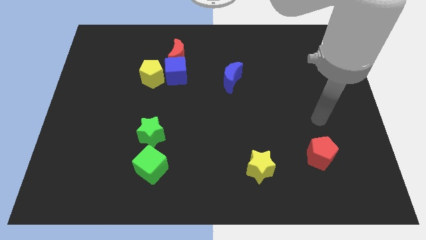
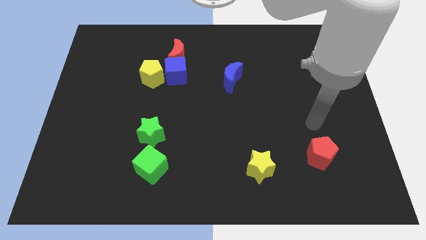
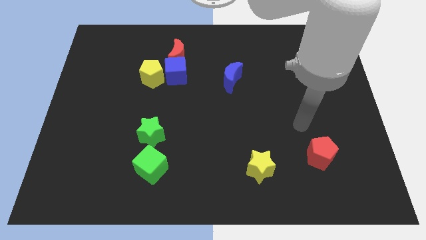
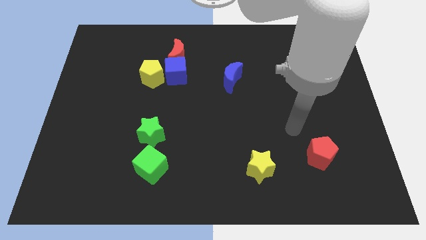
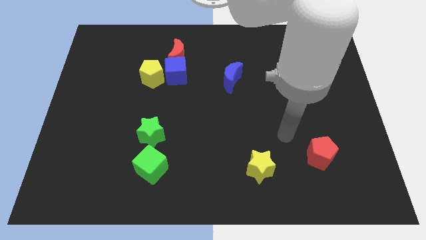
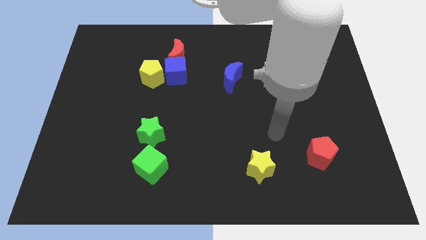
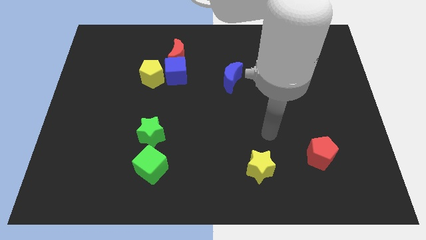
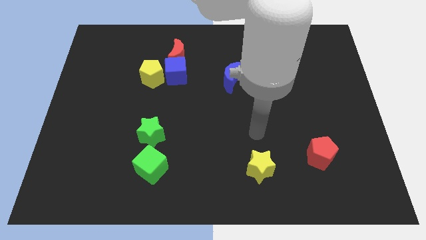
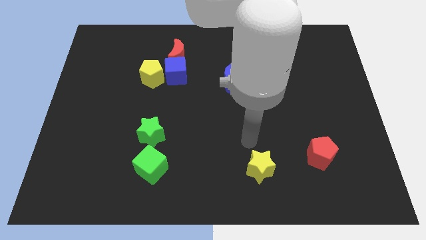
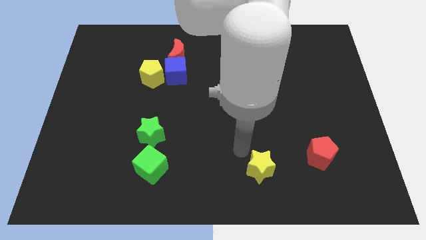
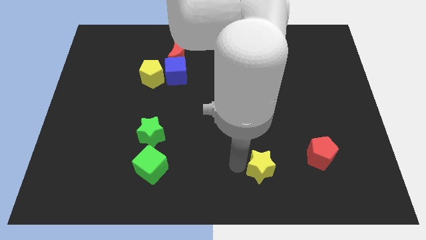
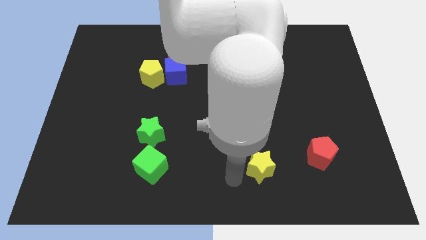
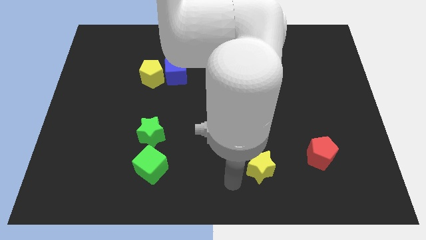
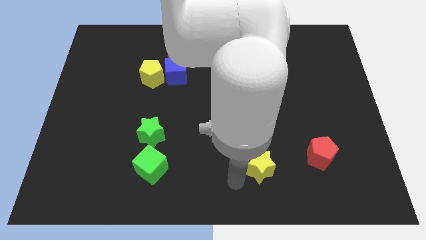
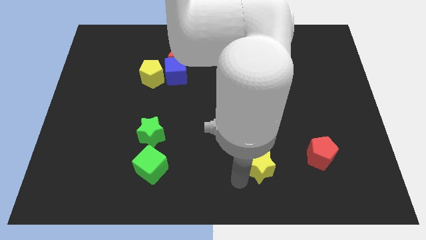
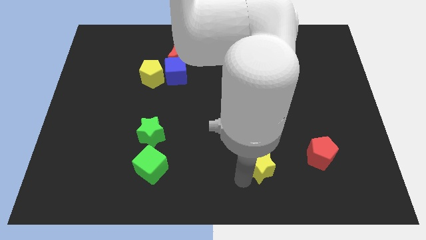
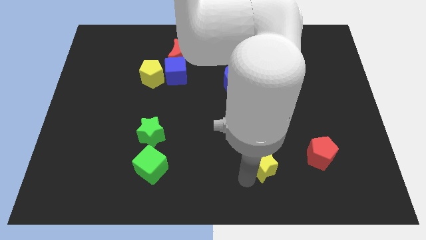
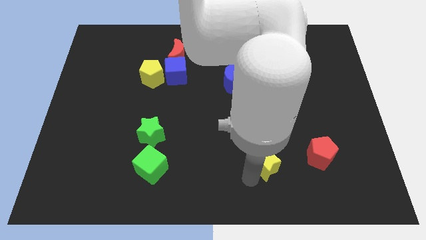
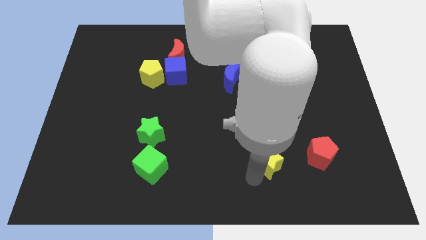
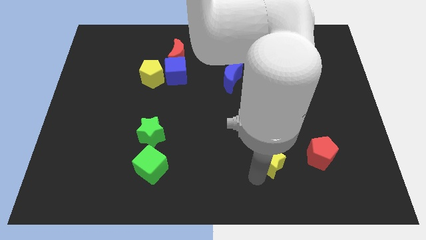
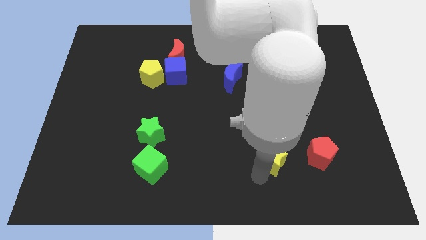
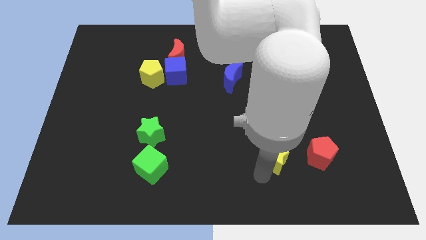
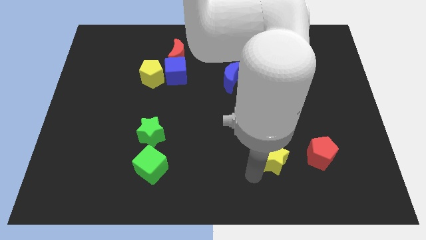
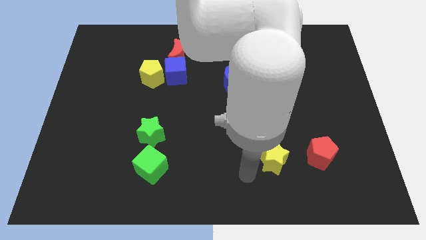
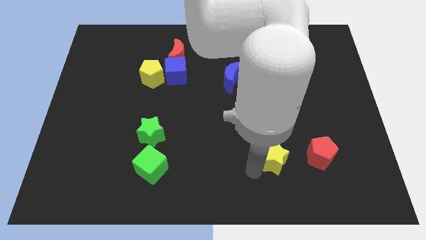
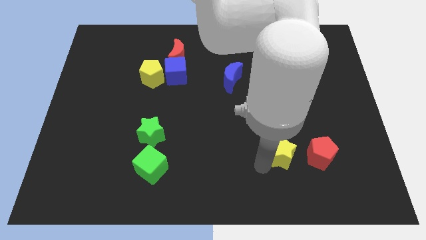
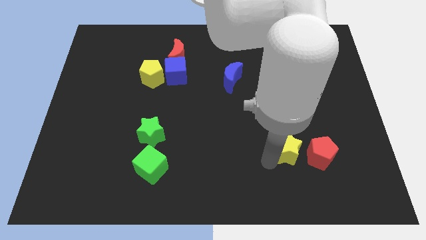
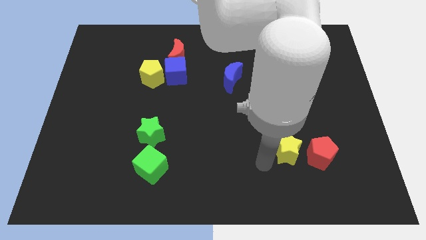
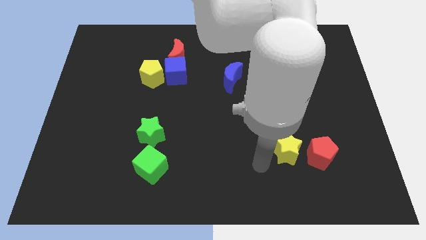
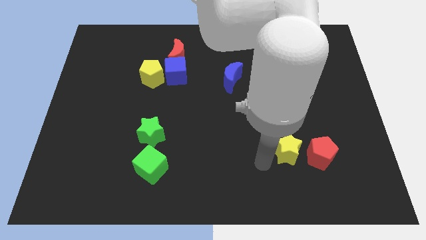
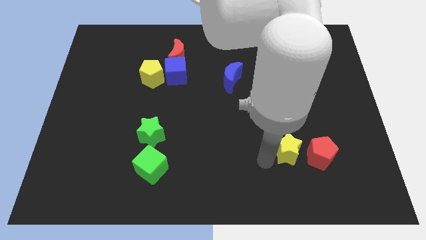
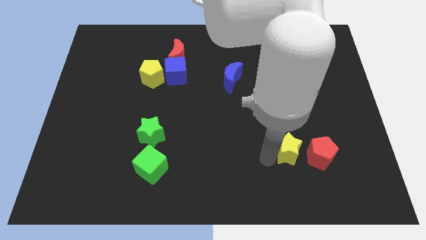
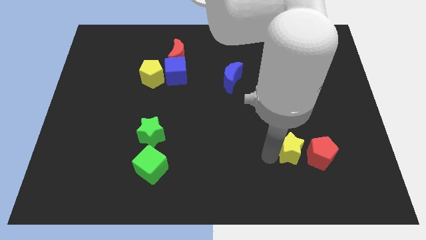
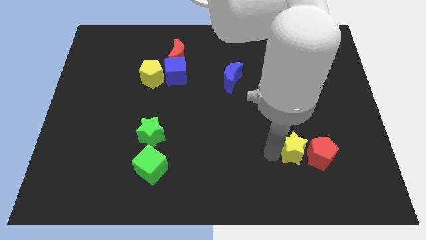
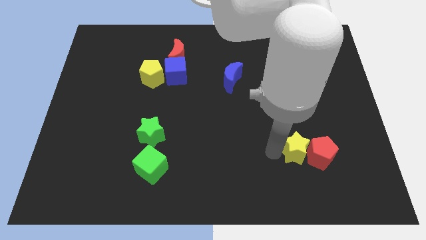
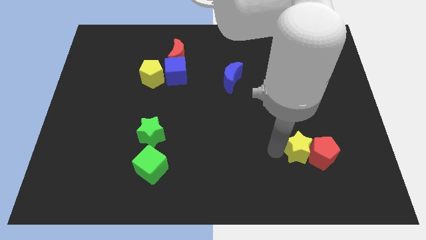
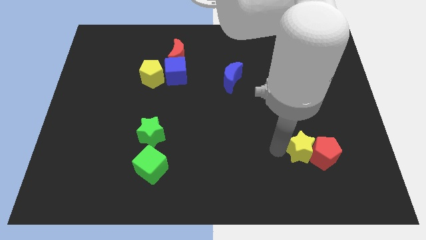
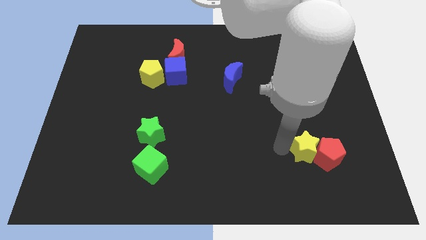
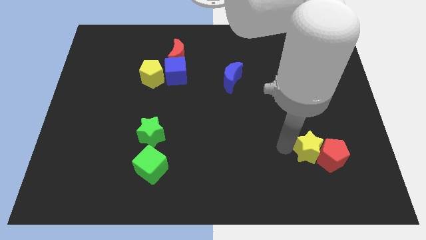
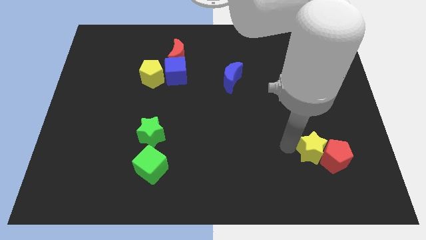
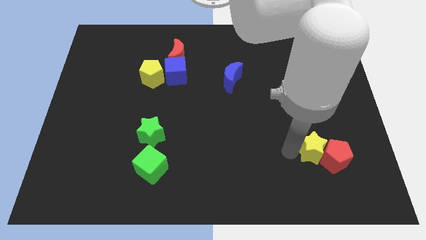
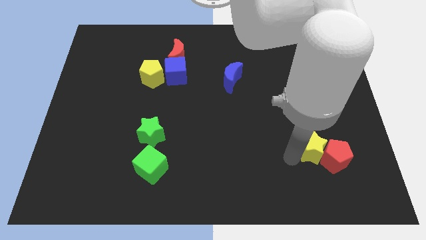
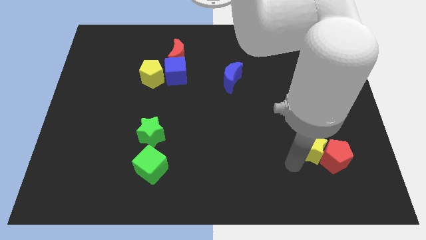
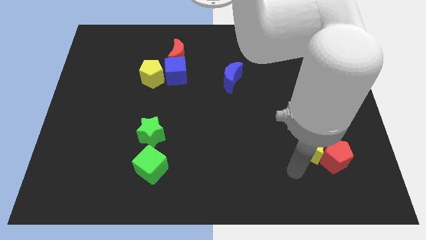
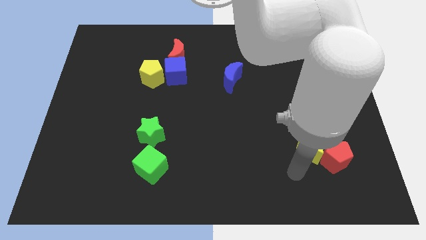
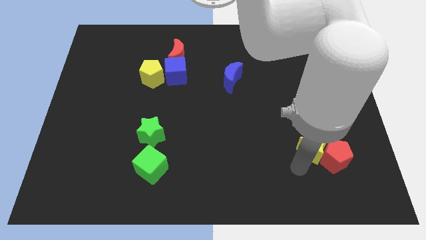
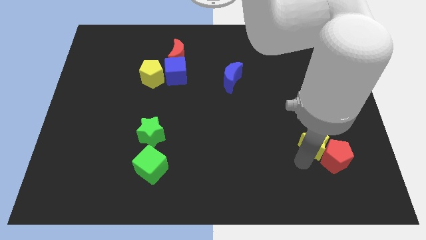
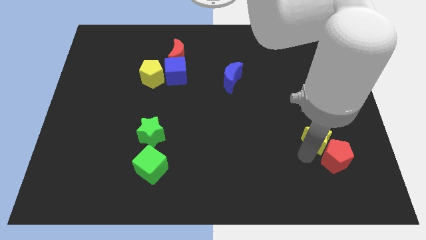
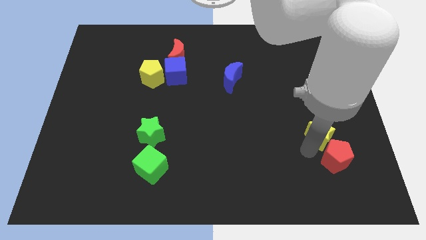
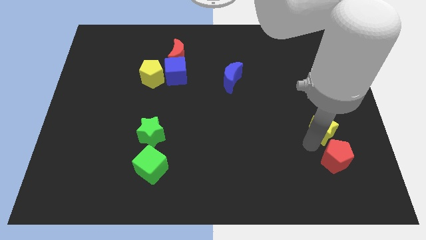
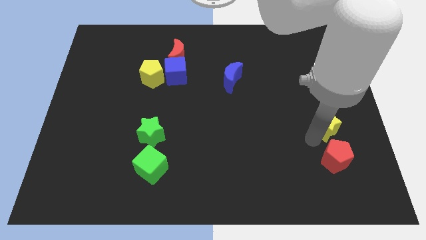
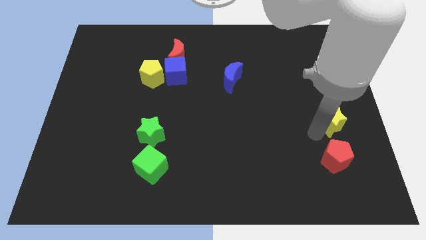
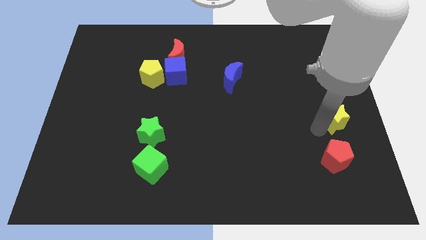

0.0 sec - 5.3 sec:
slide the yellow star to the center right

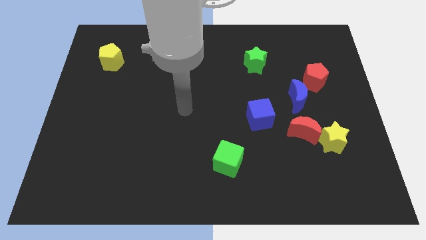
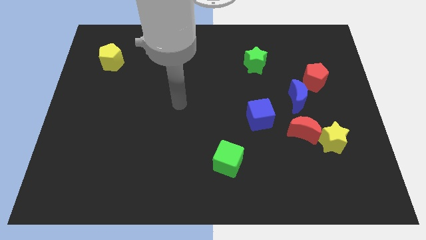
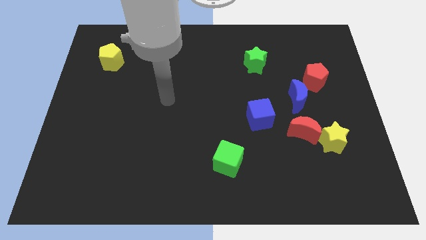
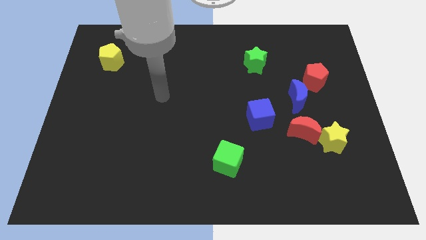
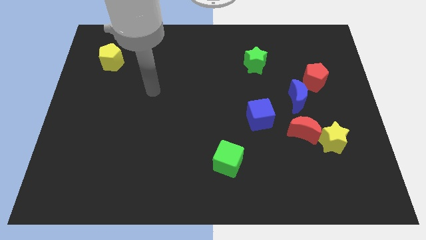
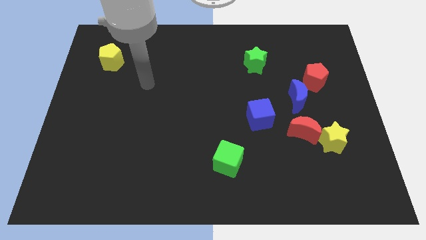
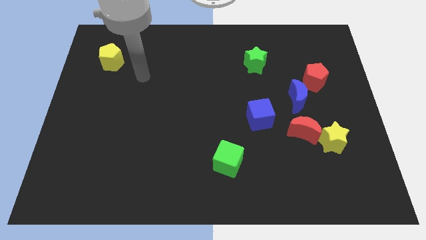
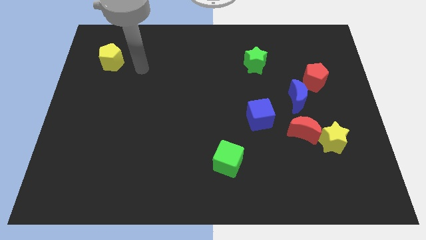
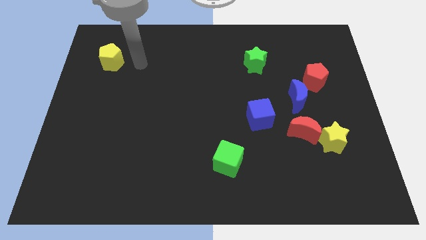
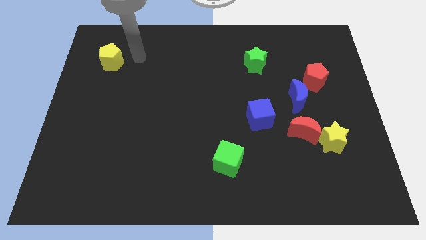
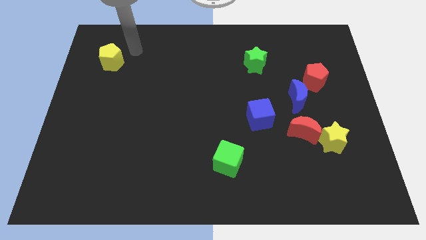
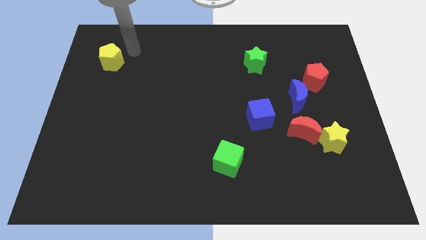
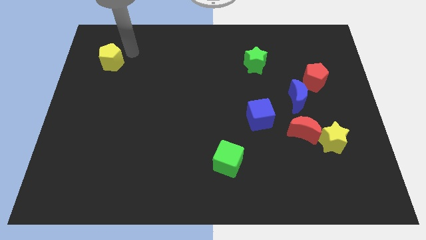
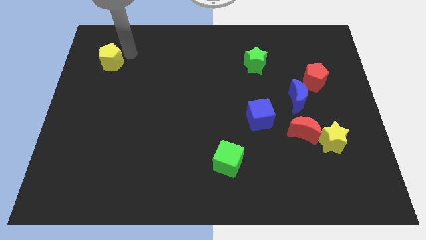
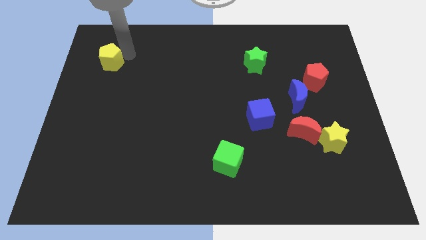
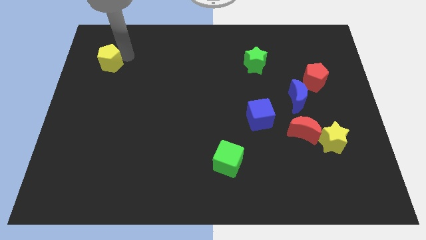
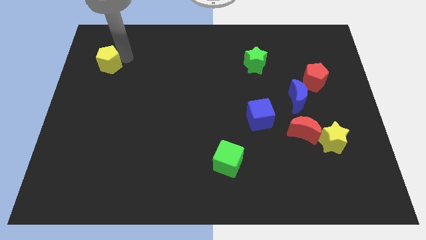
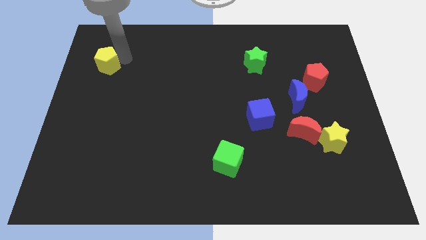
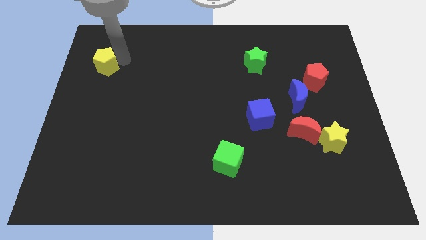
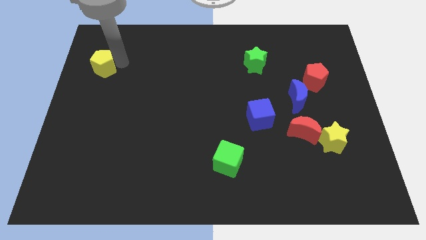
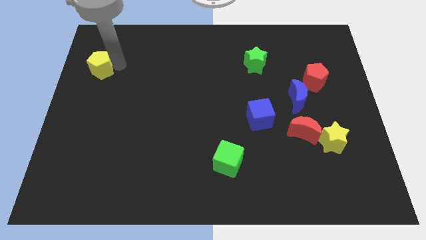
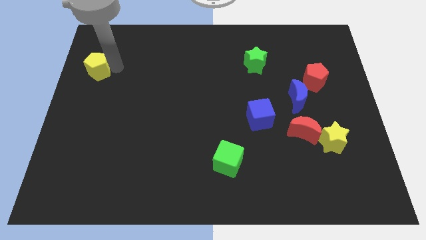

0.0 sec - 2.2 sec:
push the yellow pentagon to the center left

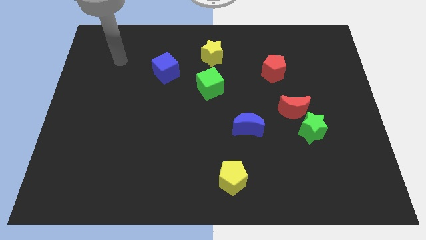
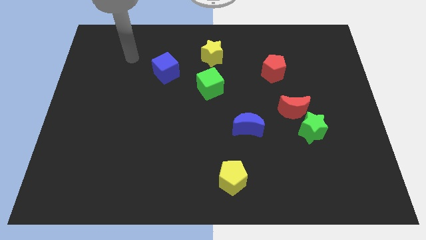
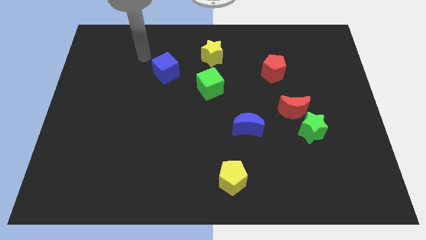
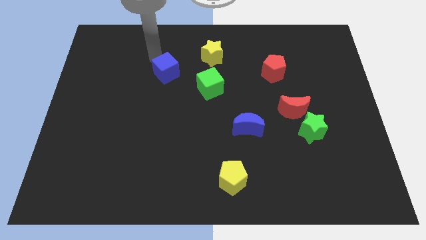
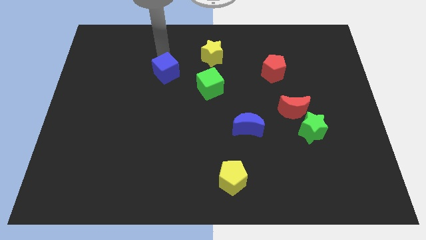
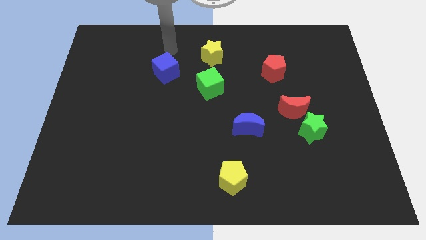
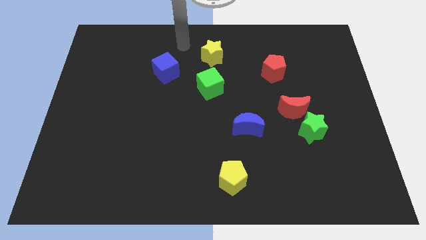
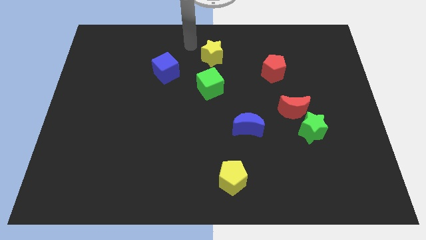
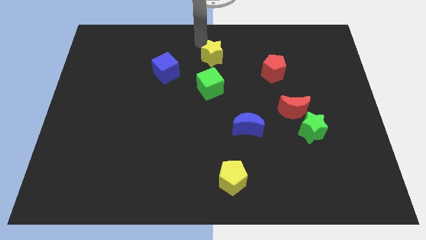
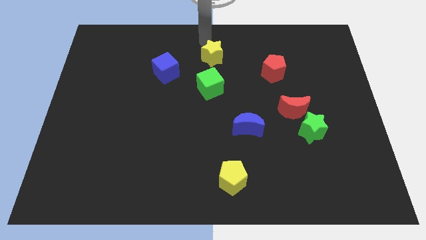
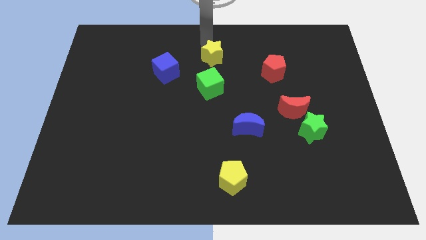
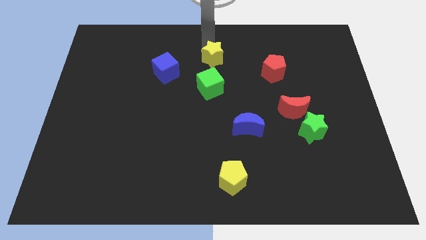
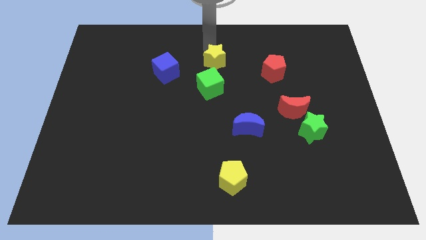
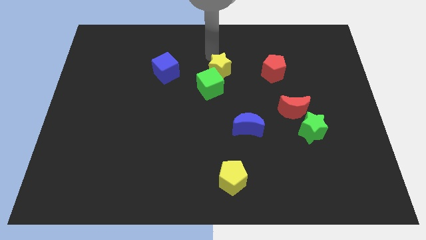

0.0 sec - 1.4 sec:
push the yellow star to the middle of the board
